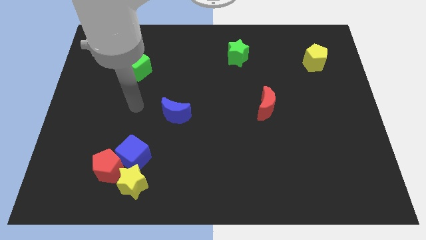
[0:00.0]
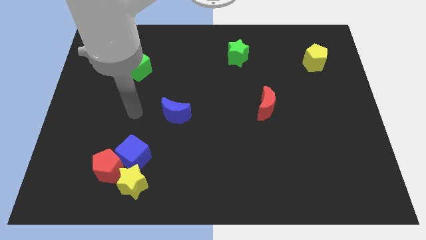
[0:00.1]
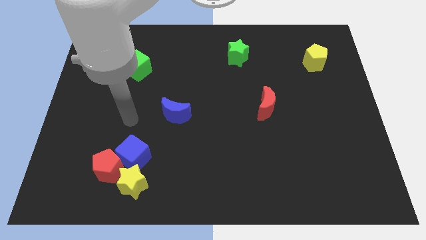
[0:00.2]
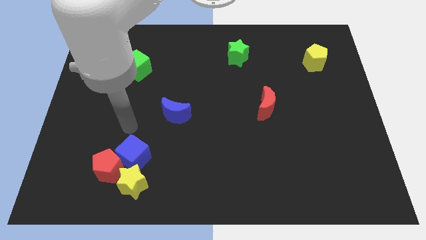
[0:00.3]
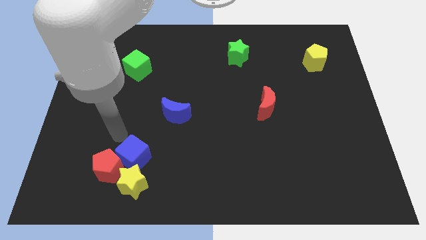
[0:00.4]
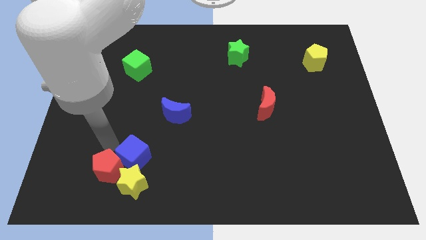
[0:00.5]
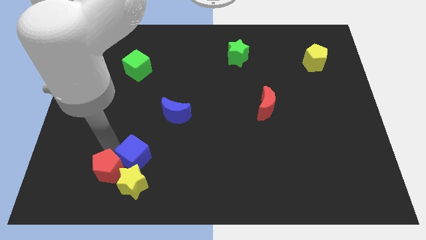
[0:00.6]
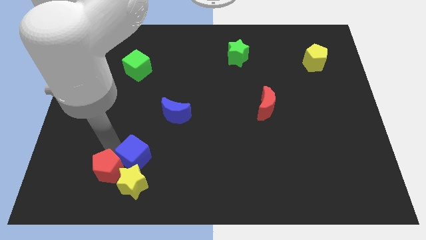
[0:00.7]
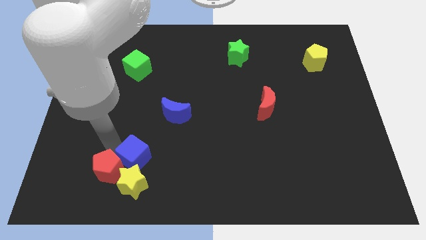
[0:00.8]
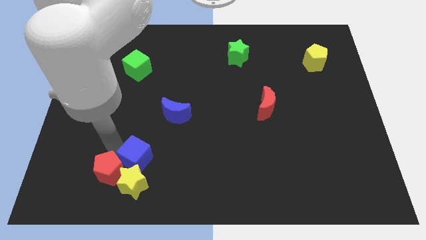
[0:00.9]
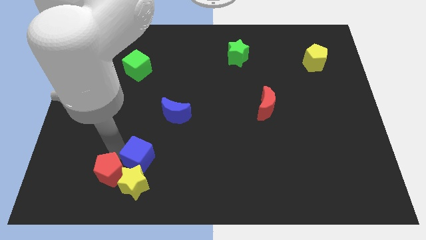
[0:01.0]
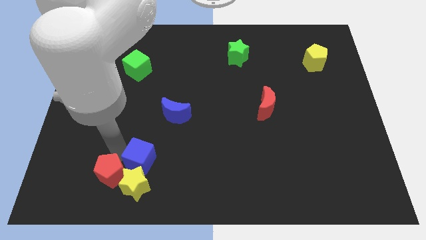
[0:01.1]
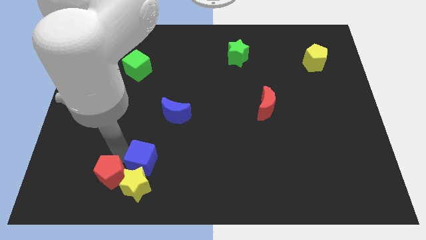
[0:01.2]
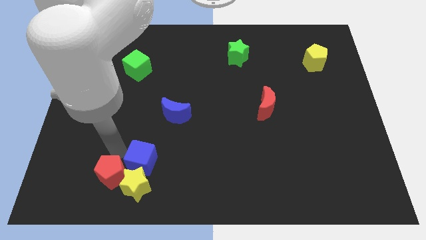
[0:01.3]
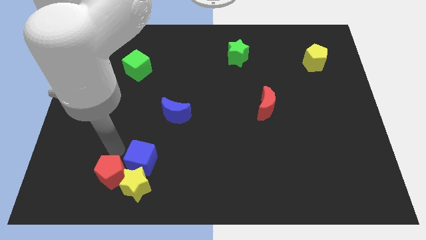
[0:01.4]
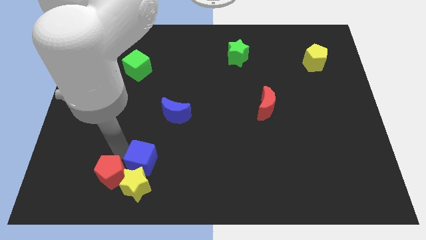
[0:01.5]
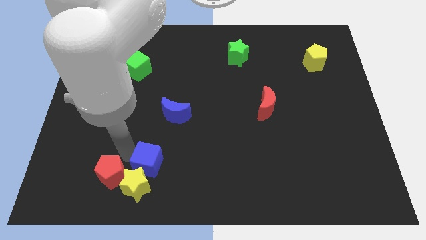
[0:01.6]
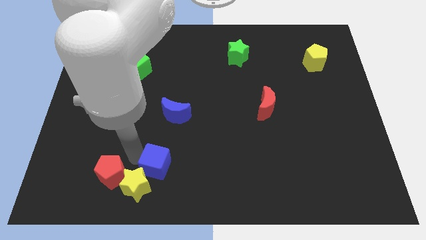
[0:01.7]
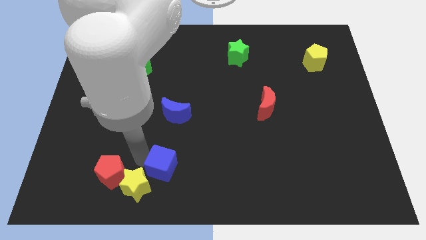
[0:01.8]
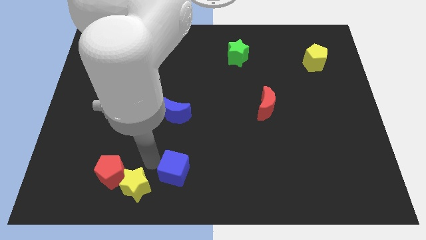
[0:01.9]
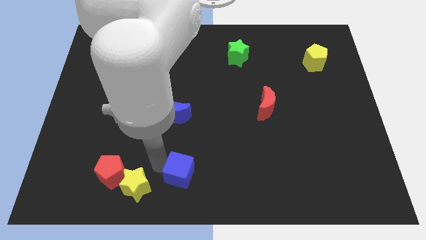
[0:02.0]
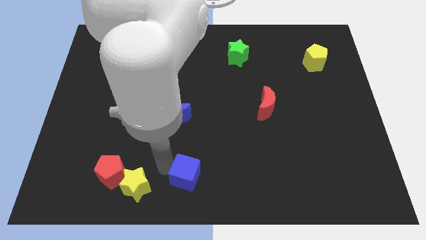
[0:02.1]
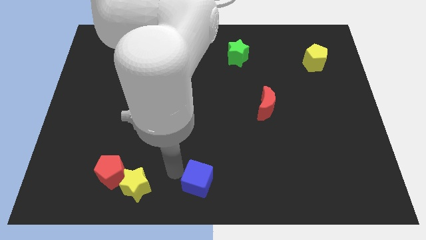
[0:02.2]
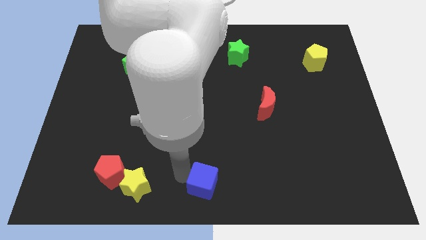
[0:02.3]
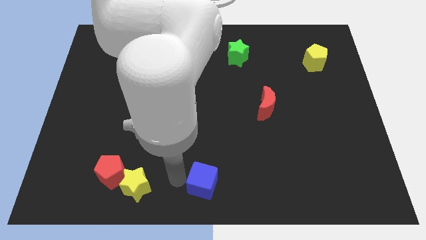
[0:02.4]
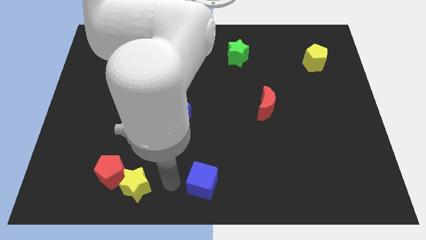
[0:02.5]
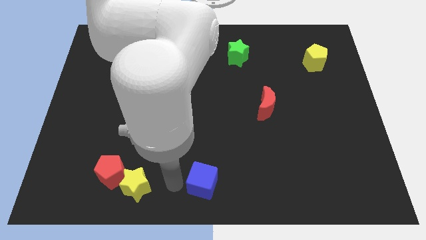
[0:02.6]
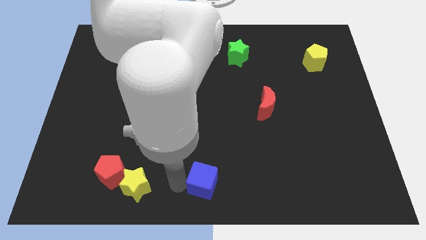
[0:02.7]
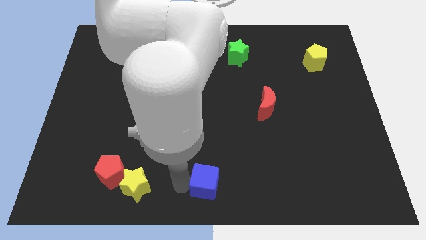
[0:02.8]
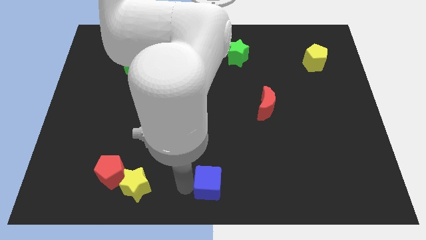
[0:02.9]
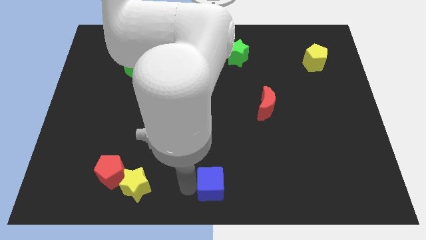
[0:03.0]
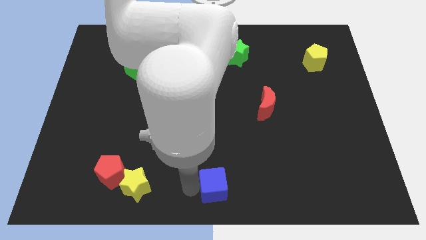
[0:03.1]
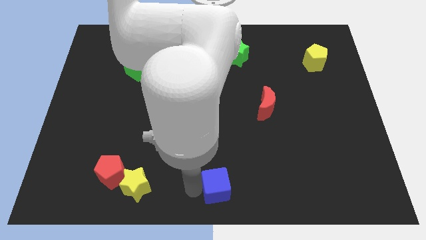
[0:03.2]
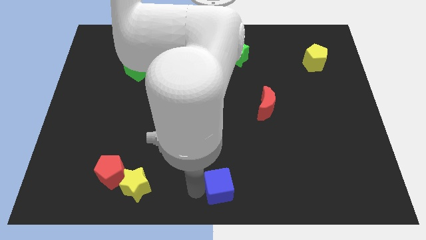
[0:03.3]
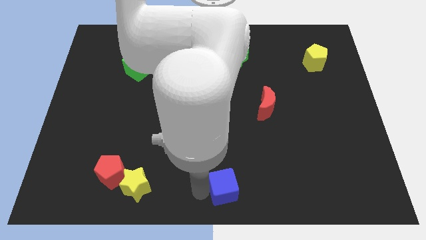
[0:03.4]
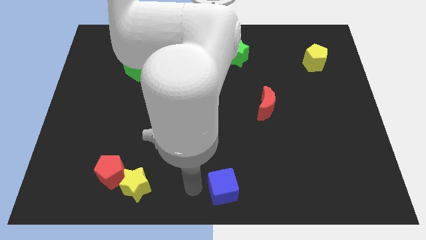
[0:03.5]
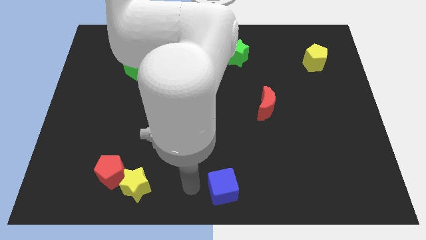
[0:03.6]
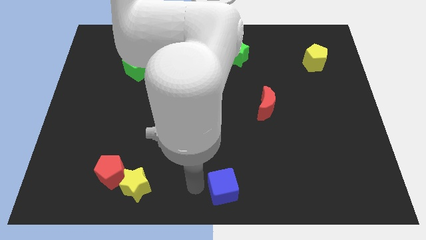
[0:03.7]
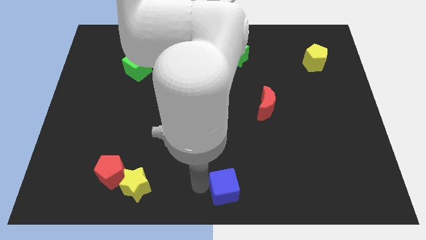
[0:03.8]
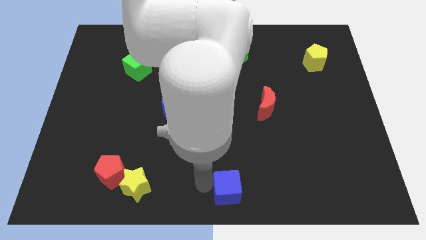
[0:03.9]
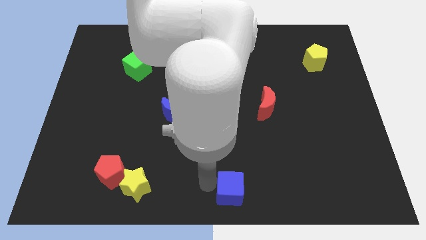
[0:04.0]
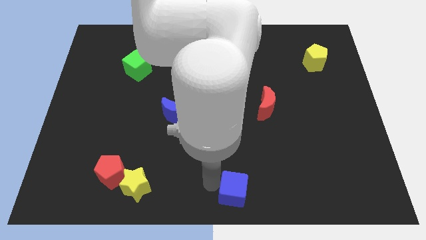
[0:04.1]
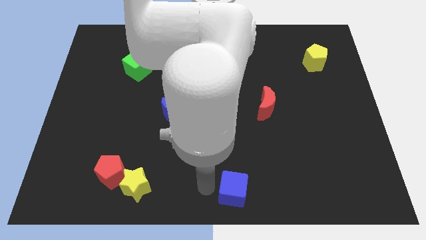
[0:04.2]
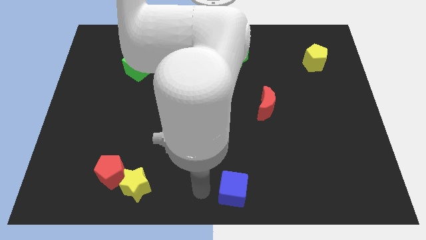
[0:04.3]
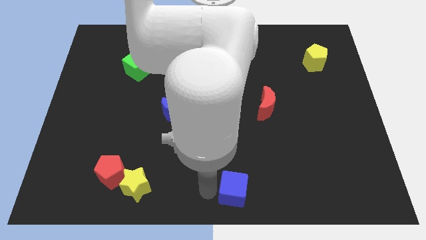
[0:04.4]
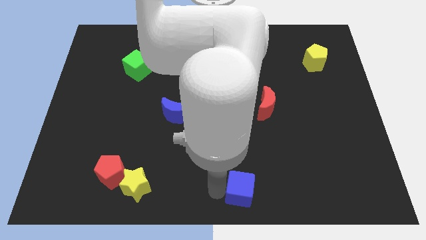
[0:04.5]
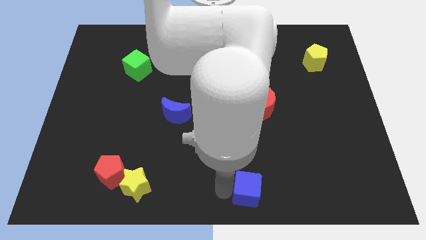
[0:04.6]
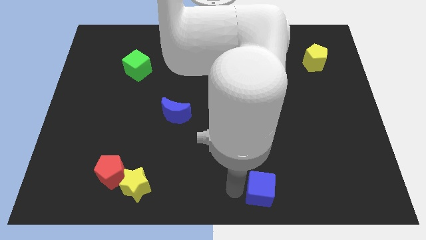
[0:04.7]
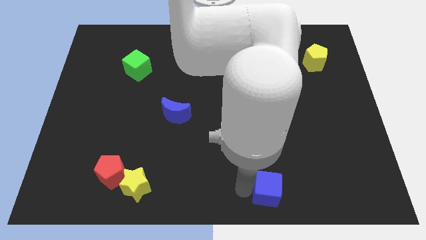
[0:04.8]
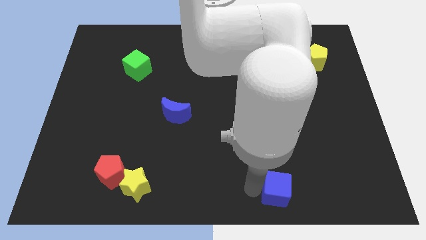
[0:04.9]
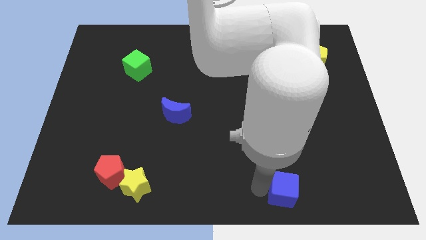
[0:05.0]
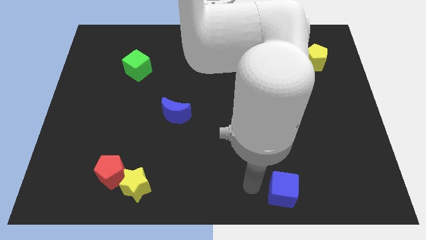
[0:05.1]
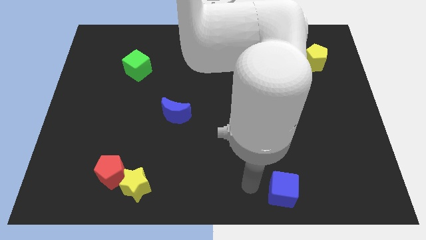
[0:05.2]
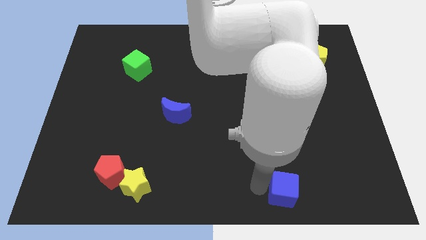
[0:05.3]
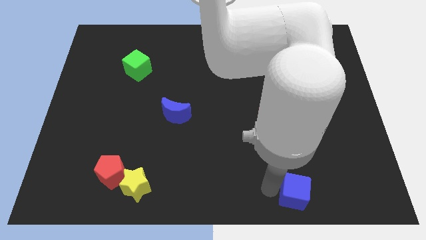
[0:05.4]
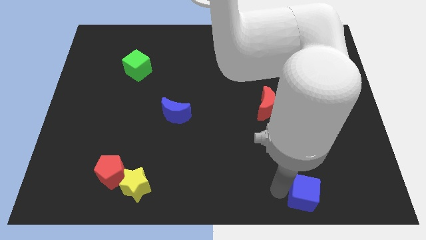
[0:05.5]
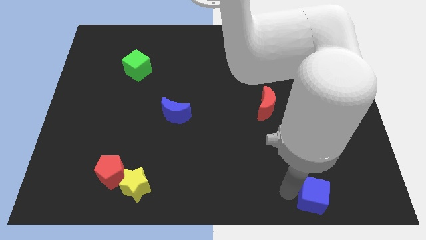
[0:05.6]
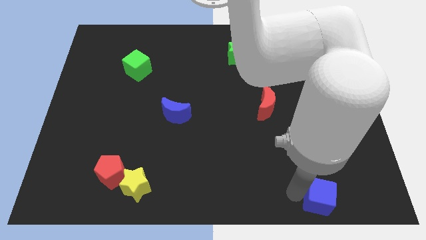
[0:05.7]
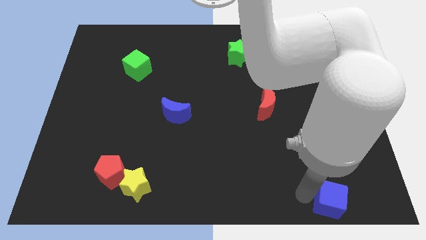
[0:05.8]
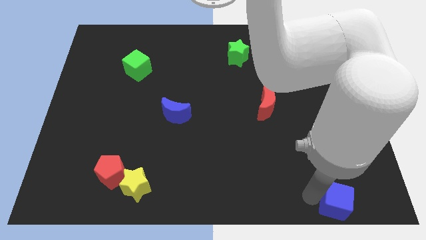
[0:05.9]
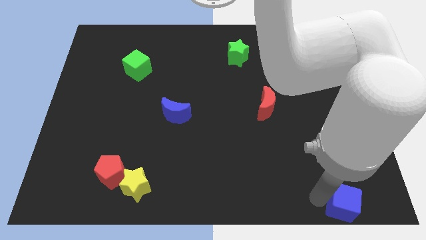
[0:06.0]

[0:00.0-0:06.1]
move the blue cube to the bottom right of the board
